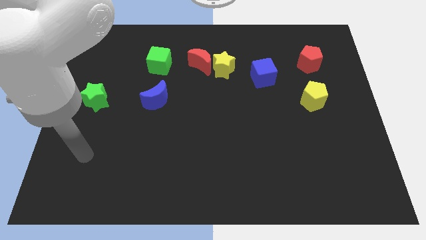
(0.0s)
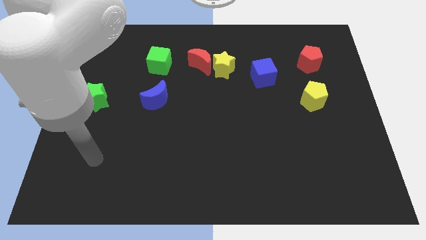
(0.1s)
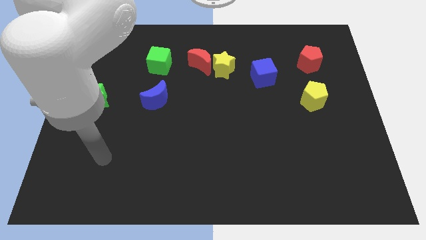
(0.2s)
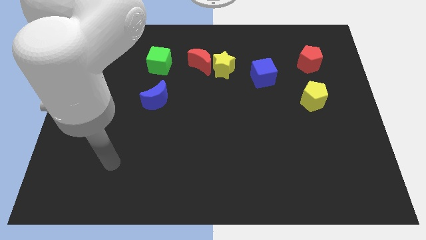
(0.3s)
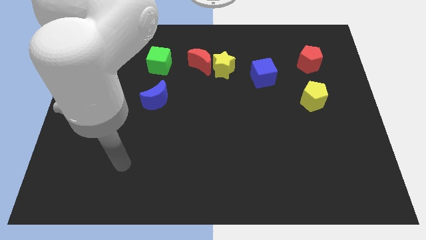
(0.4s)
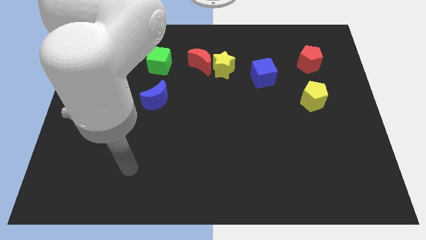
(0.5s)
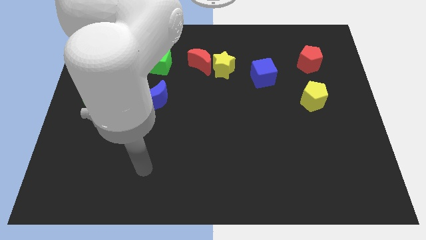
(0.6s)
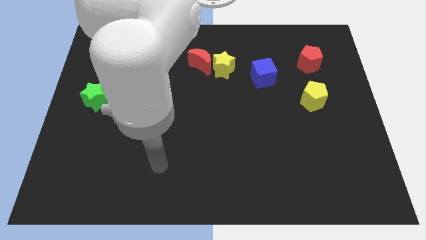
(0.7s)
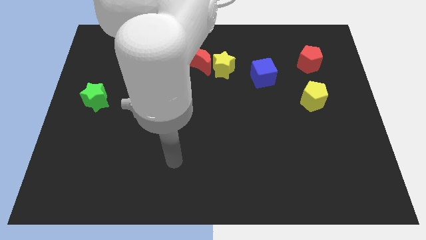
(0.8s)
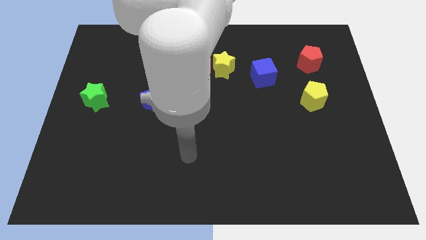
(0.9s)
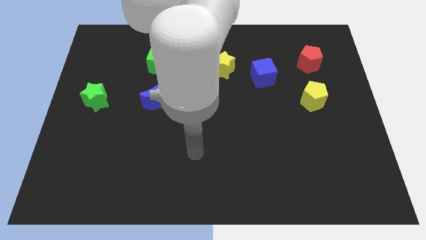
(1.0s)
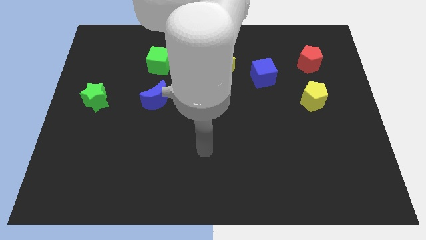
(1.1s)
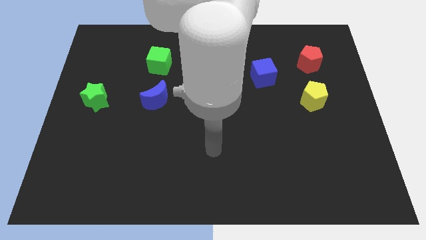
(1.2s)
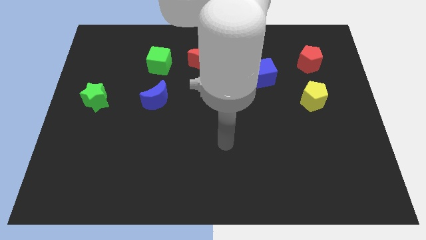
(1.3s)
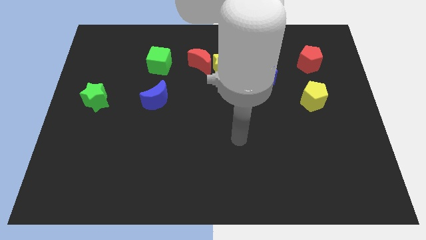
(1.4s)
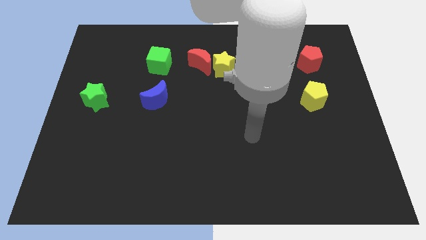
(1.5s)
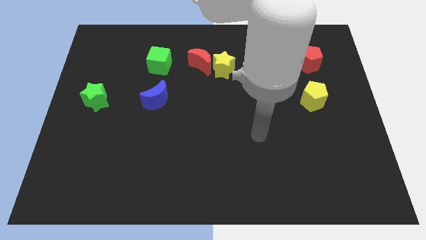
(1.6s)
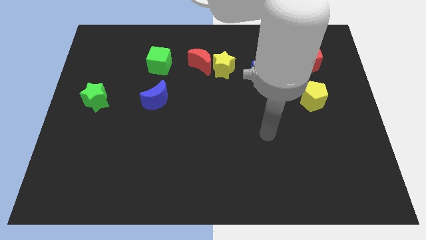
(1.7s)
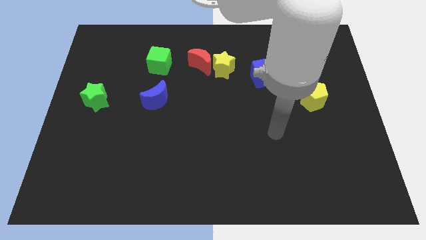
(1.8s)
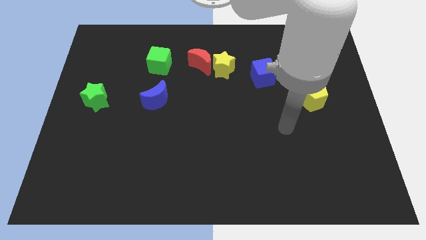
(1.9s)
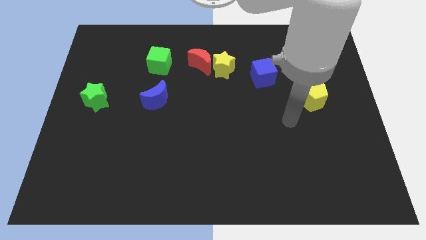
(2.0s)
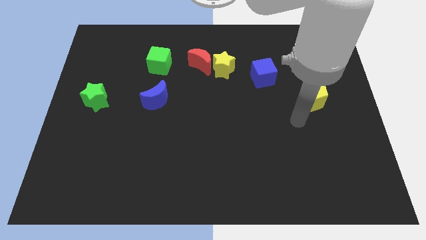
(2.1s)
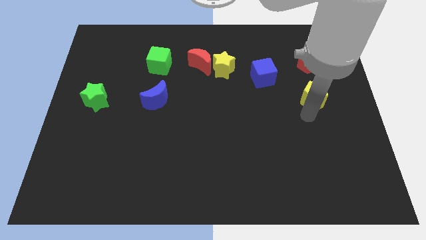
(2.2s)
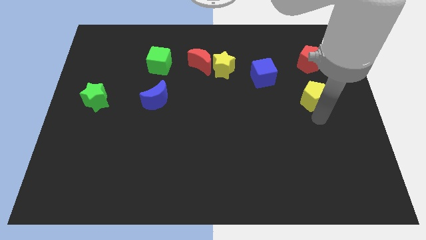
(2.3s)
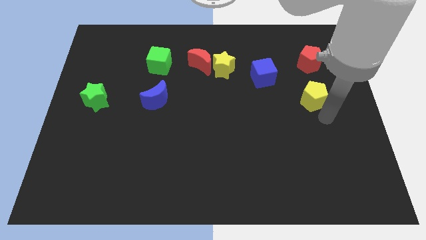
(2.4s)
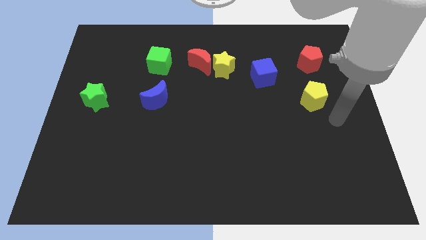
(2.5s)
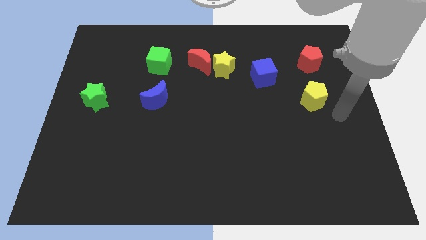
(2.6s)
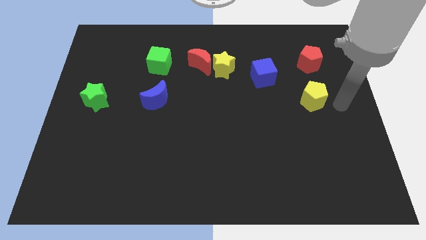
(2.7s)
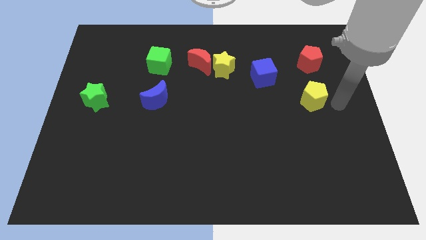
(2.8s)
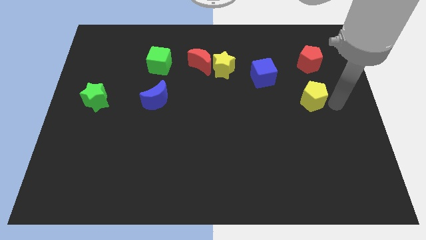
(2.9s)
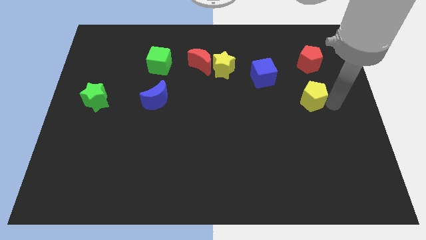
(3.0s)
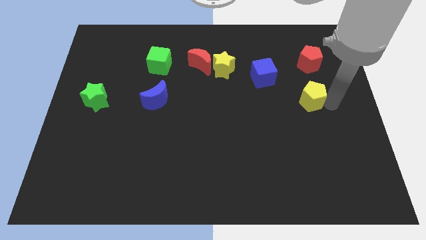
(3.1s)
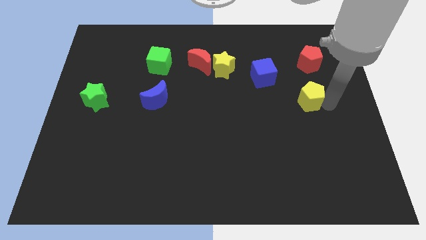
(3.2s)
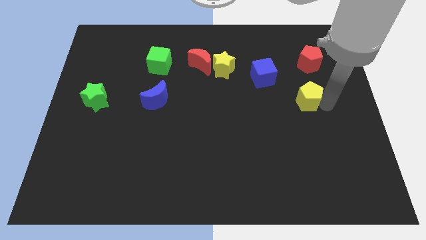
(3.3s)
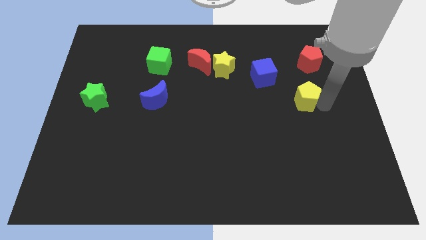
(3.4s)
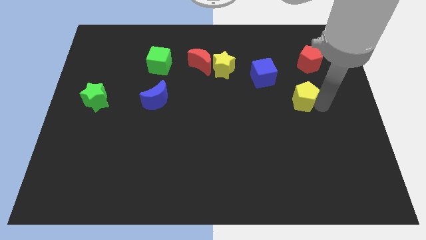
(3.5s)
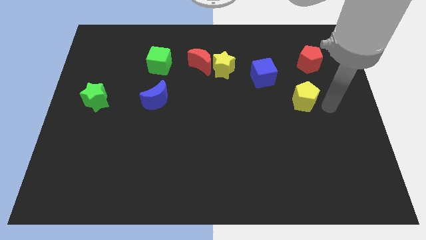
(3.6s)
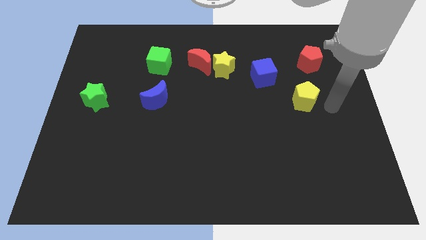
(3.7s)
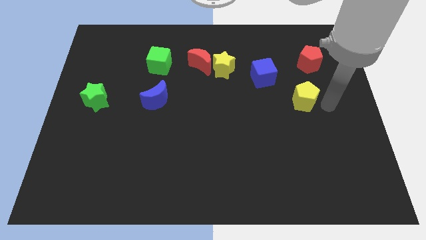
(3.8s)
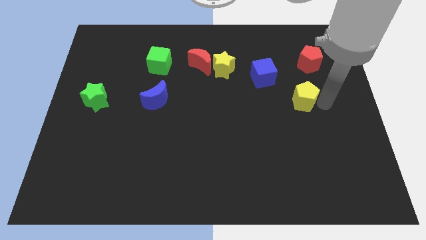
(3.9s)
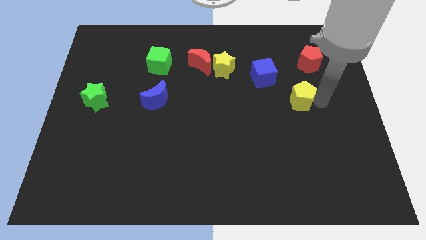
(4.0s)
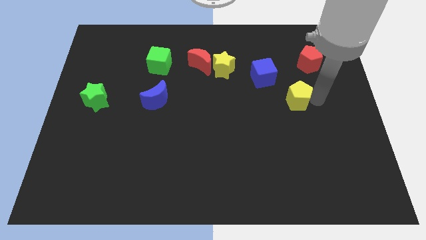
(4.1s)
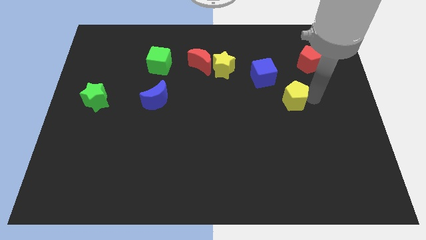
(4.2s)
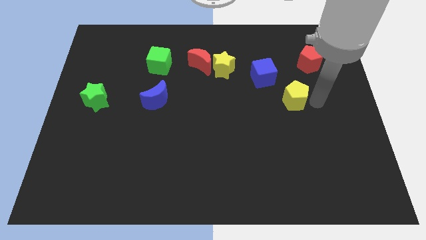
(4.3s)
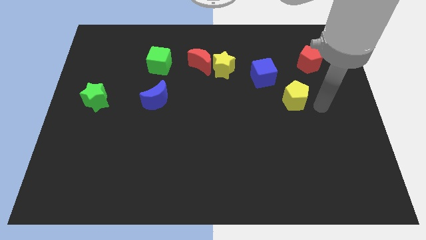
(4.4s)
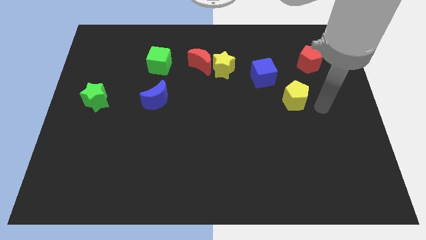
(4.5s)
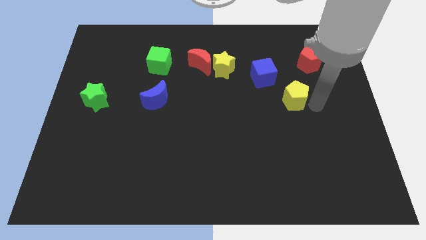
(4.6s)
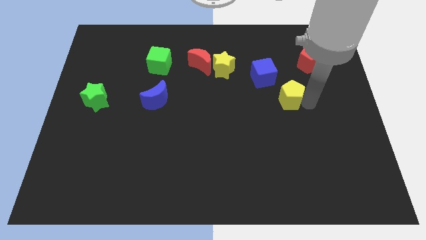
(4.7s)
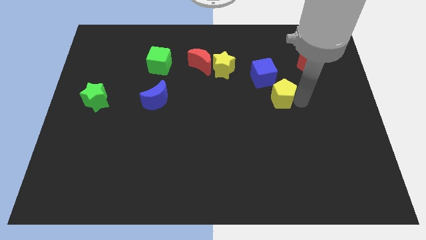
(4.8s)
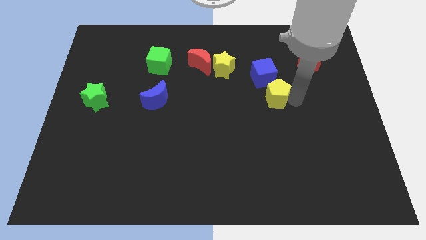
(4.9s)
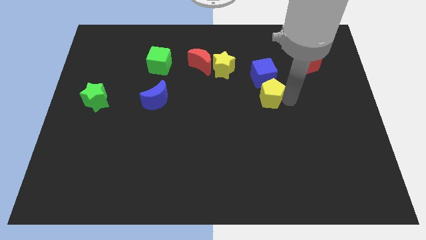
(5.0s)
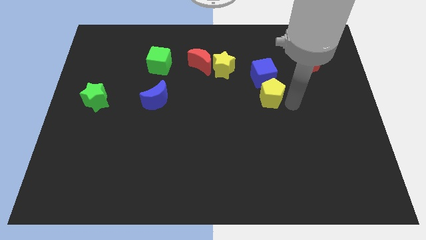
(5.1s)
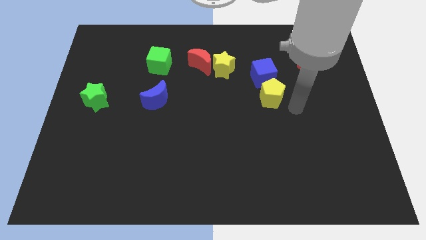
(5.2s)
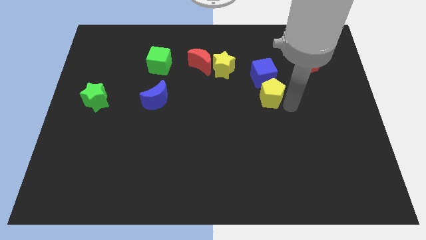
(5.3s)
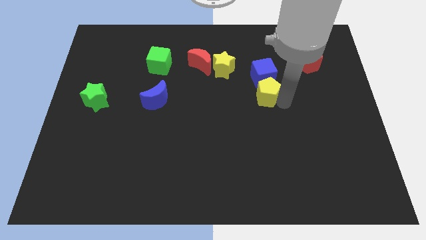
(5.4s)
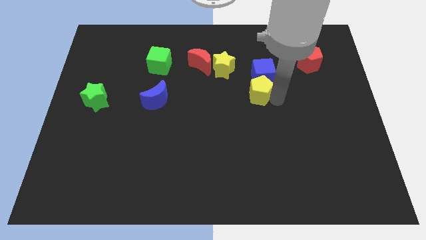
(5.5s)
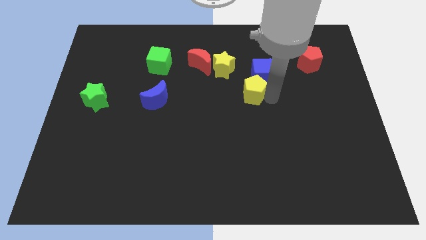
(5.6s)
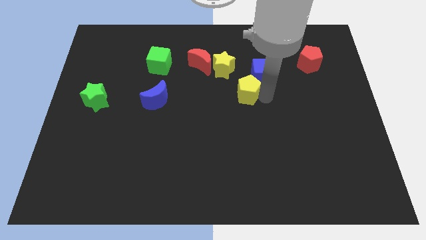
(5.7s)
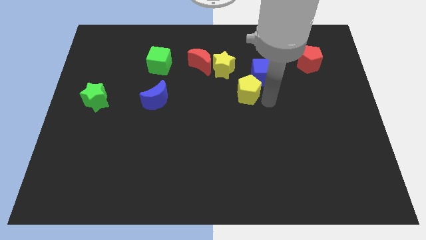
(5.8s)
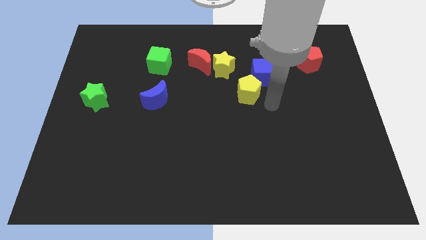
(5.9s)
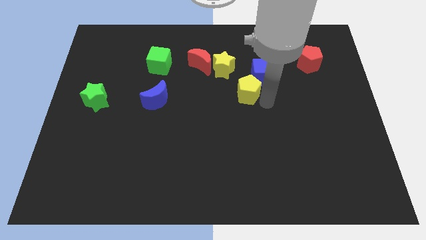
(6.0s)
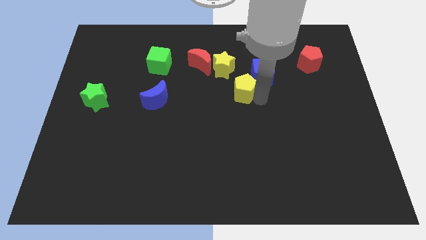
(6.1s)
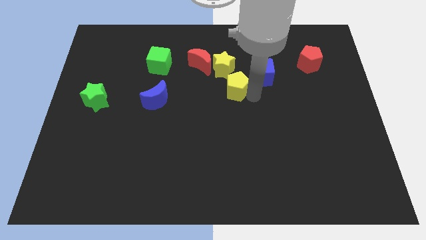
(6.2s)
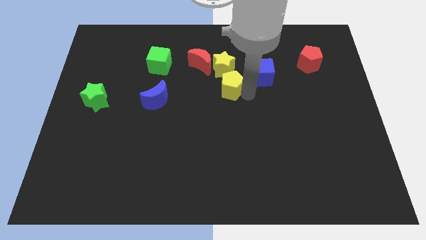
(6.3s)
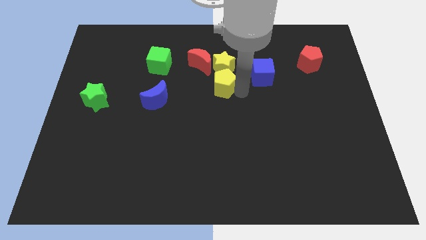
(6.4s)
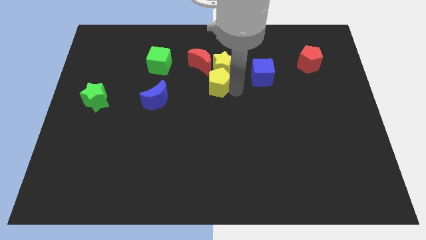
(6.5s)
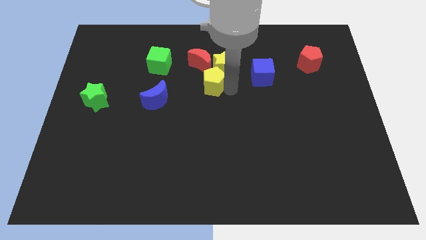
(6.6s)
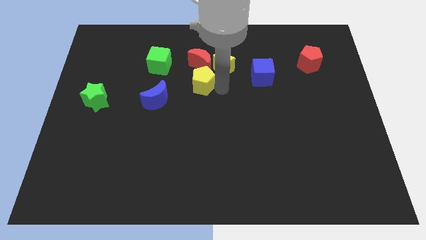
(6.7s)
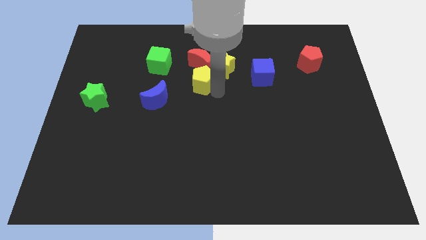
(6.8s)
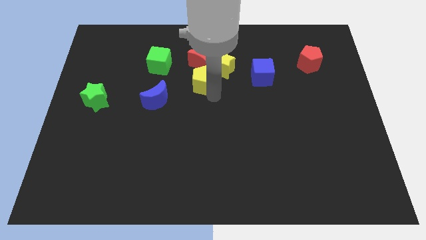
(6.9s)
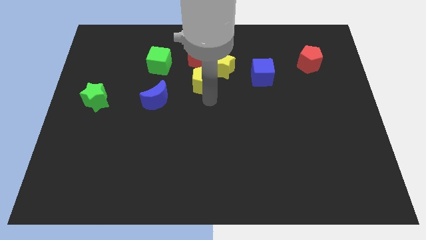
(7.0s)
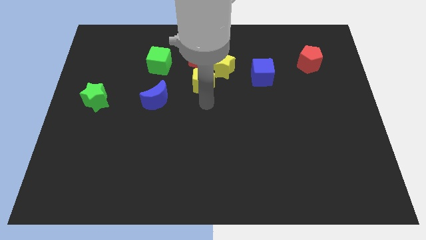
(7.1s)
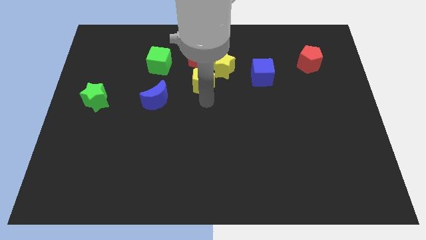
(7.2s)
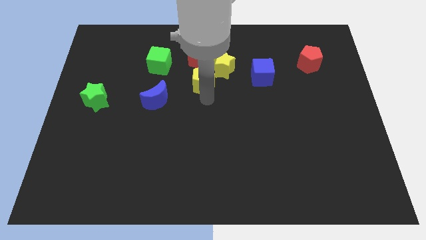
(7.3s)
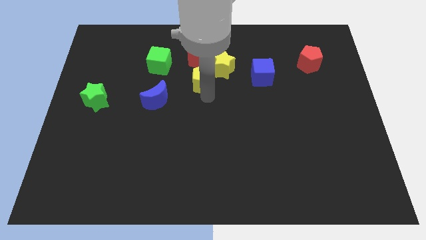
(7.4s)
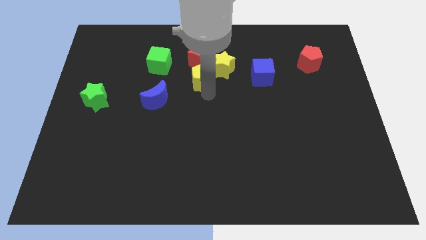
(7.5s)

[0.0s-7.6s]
move the yellow pentagon to the red moon
